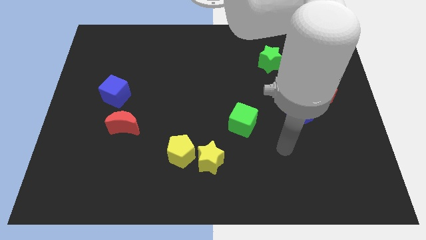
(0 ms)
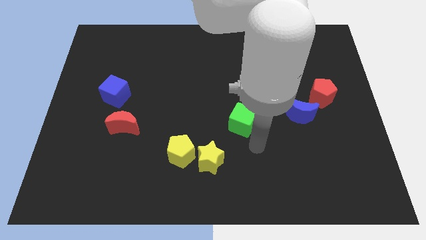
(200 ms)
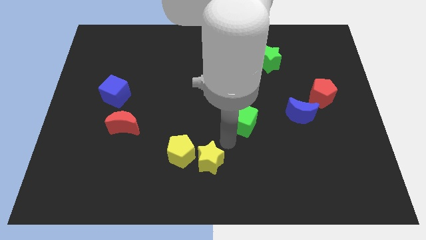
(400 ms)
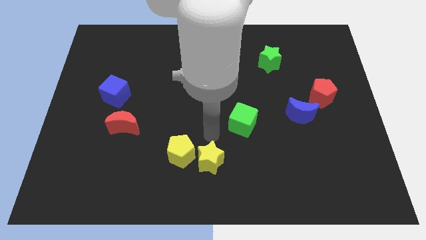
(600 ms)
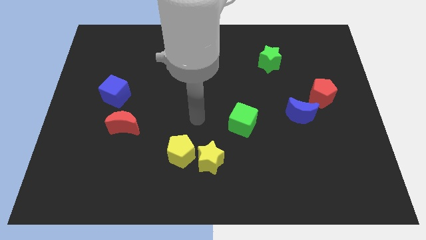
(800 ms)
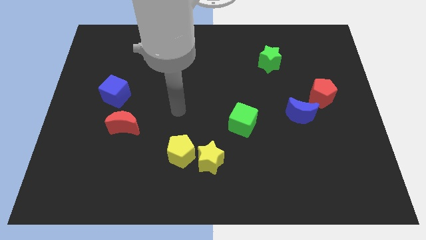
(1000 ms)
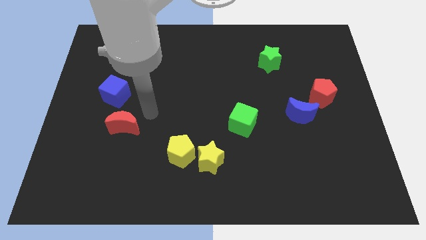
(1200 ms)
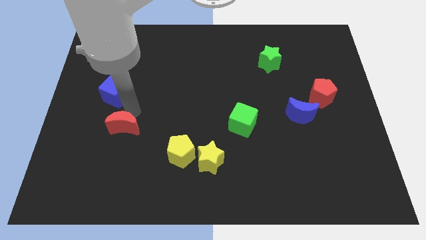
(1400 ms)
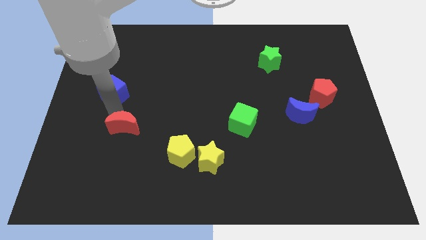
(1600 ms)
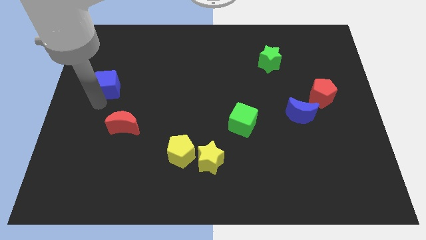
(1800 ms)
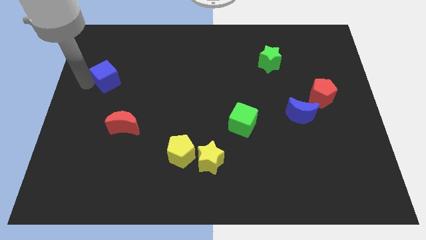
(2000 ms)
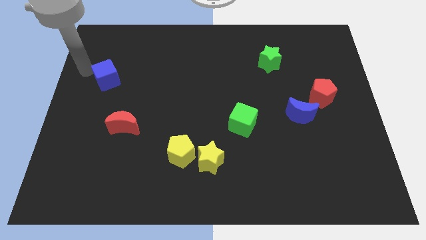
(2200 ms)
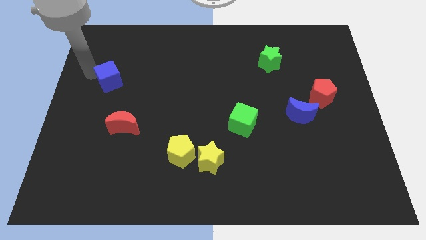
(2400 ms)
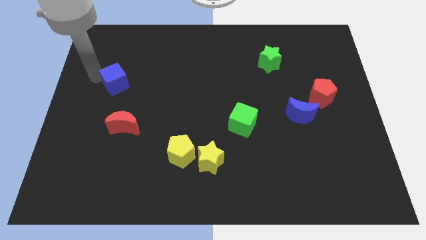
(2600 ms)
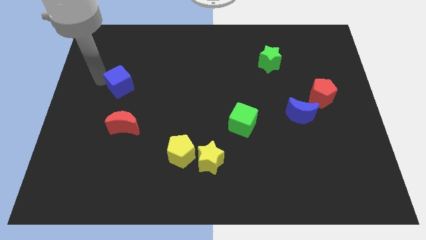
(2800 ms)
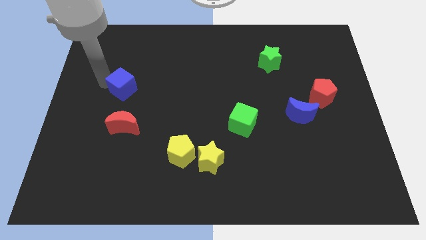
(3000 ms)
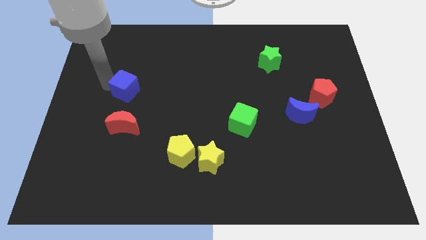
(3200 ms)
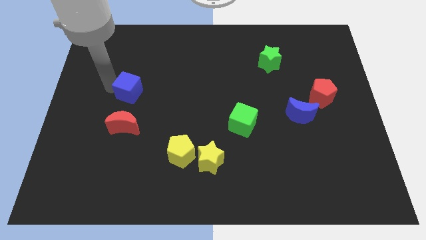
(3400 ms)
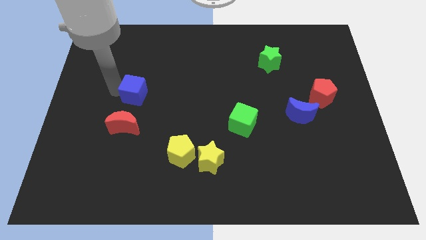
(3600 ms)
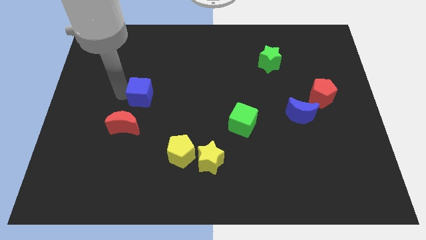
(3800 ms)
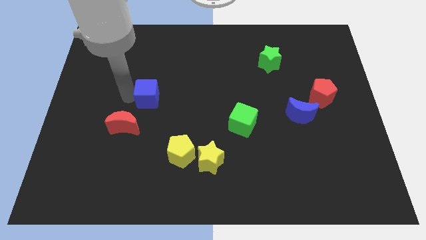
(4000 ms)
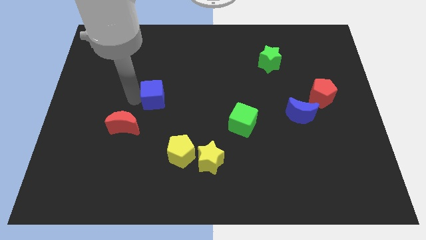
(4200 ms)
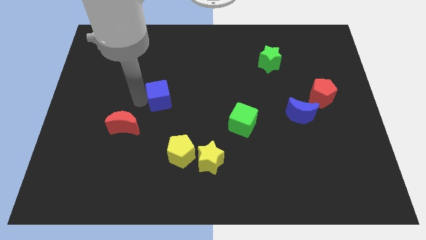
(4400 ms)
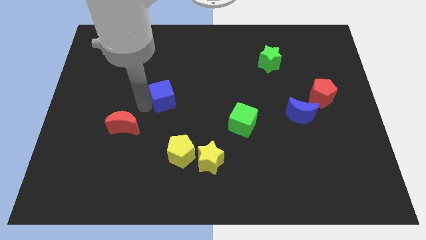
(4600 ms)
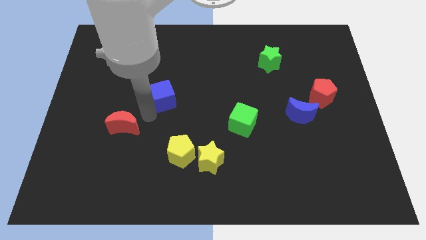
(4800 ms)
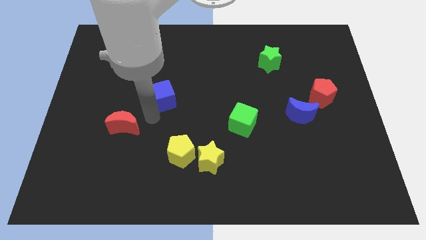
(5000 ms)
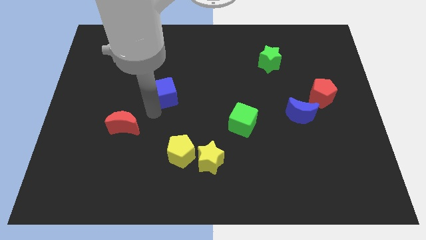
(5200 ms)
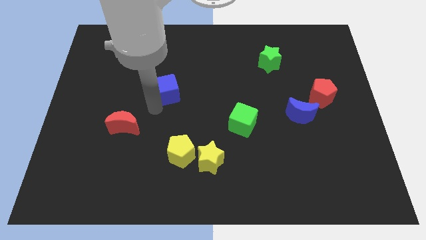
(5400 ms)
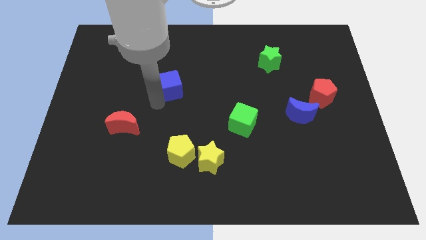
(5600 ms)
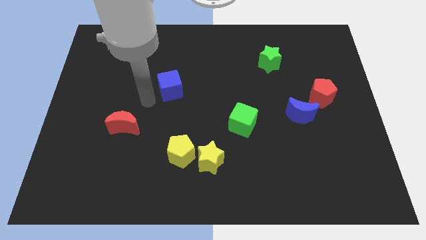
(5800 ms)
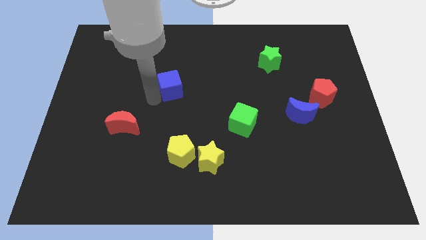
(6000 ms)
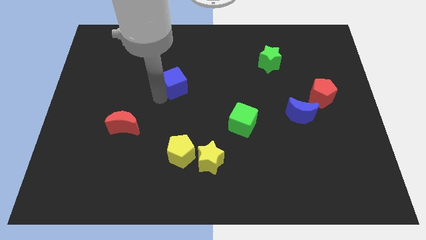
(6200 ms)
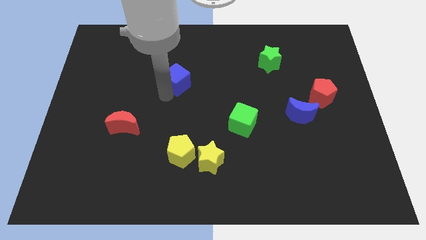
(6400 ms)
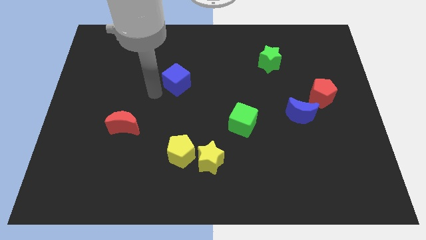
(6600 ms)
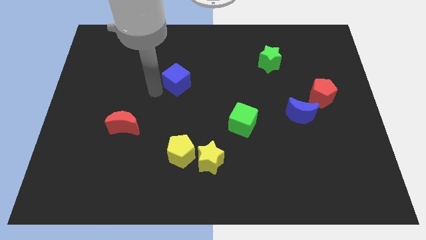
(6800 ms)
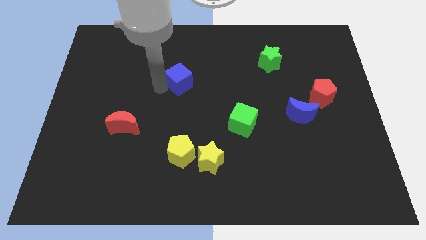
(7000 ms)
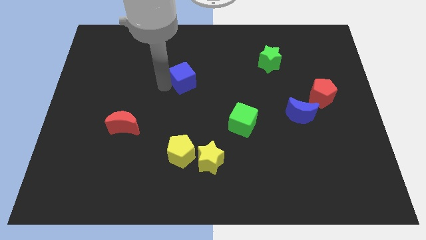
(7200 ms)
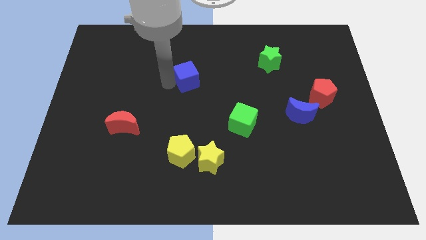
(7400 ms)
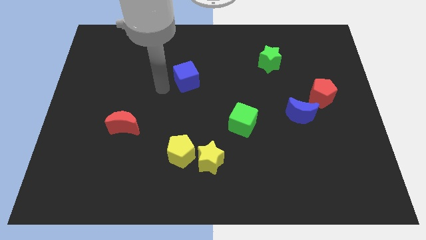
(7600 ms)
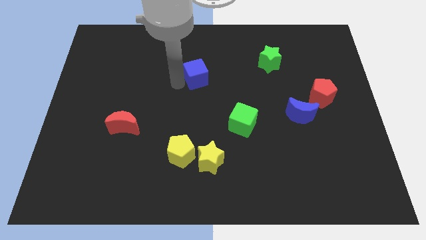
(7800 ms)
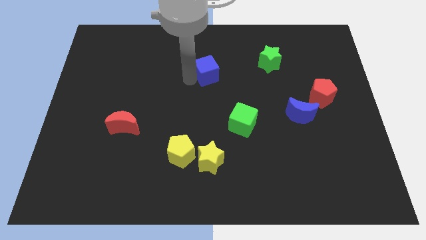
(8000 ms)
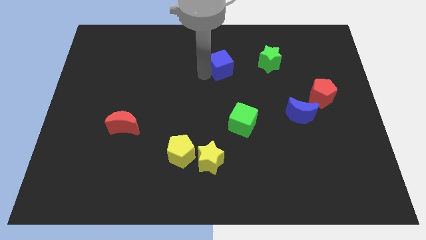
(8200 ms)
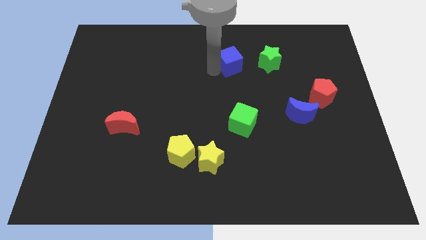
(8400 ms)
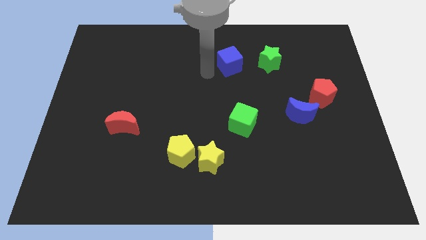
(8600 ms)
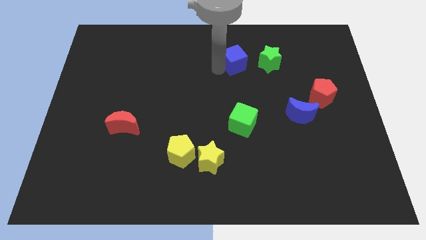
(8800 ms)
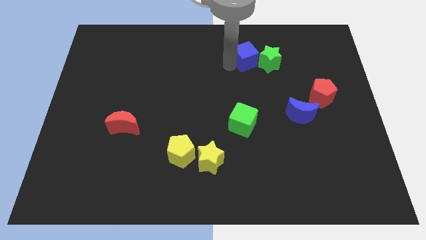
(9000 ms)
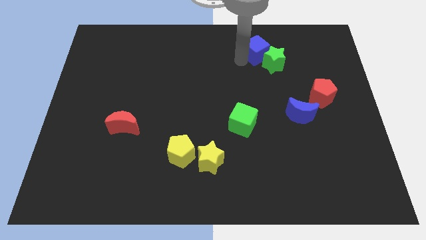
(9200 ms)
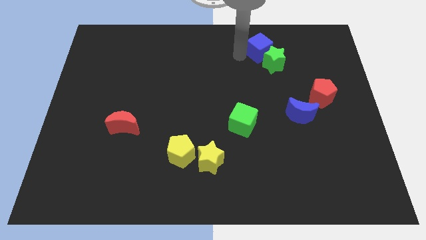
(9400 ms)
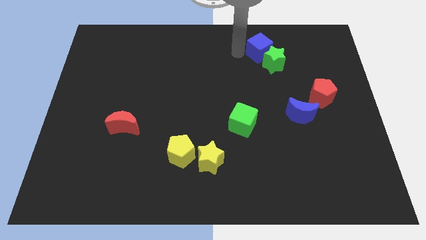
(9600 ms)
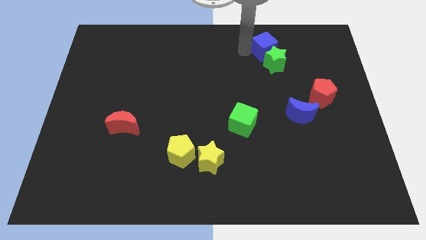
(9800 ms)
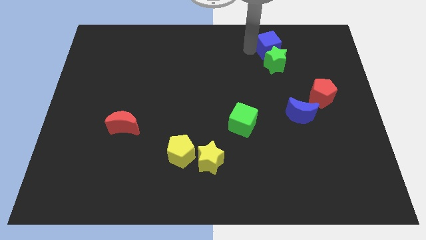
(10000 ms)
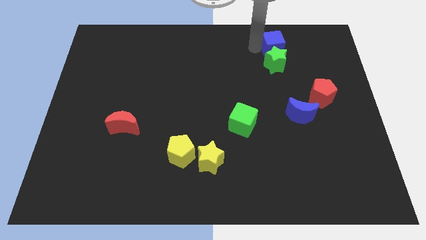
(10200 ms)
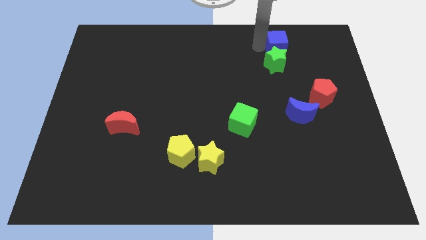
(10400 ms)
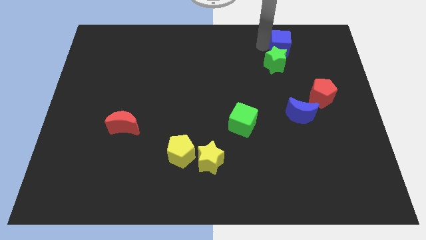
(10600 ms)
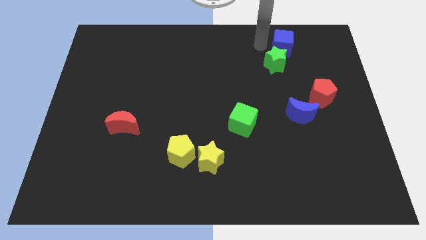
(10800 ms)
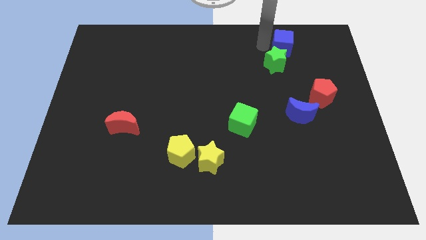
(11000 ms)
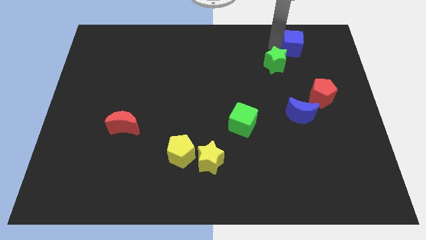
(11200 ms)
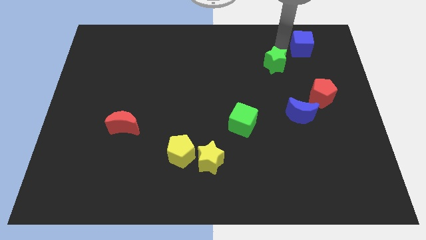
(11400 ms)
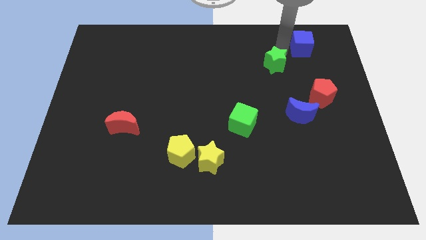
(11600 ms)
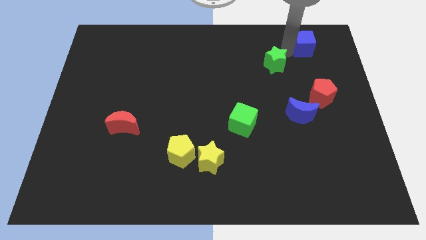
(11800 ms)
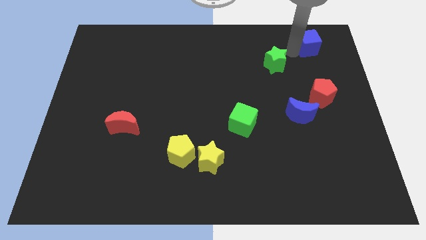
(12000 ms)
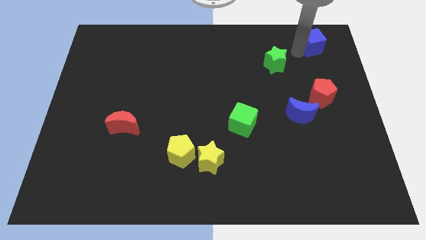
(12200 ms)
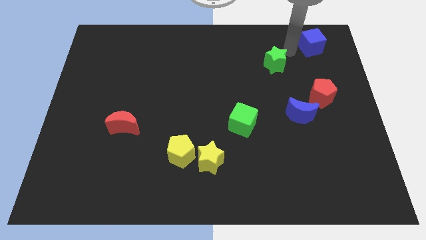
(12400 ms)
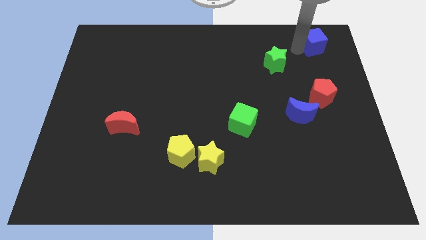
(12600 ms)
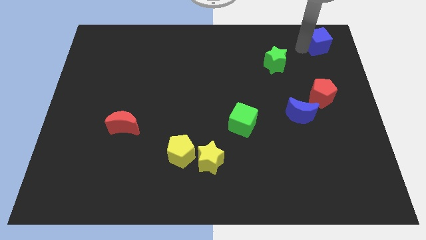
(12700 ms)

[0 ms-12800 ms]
slide the blue cube to the top right corner
